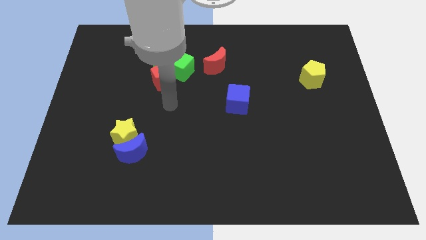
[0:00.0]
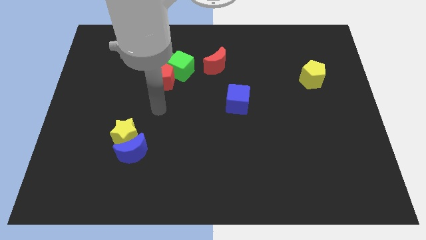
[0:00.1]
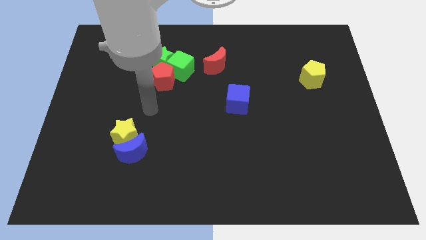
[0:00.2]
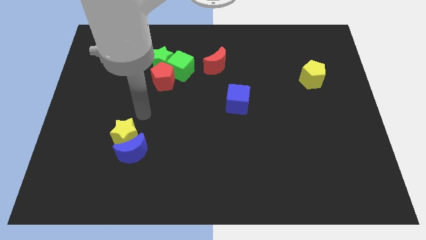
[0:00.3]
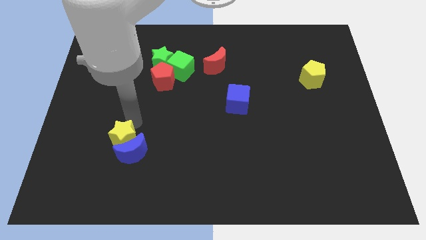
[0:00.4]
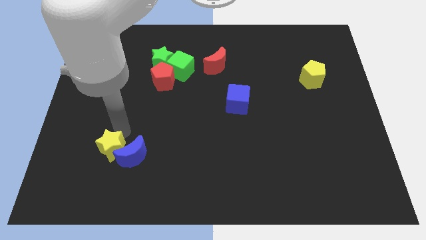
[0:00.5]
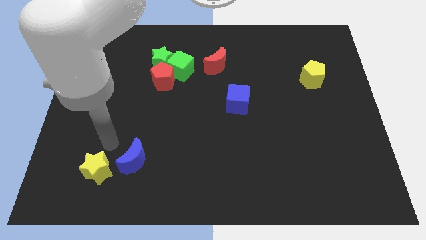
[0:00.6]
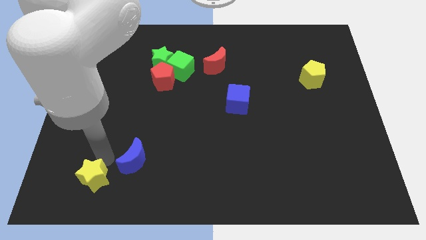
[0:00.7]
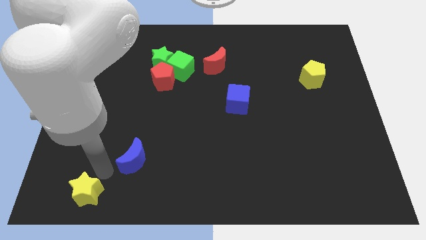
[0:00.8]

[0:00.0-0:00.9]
move the blue moon away from the yellow star

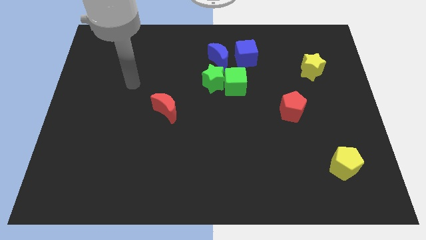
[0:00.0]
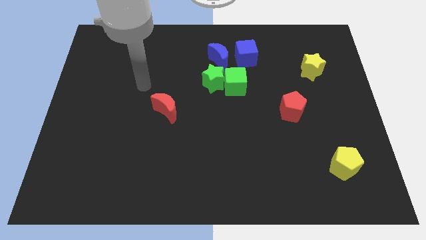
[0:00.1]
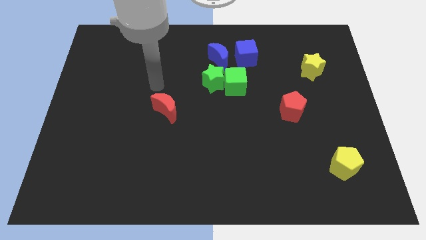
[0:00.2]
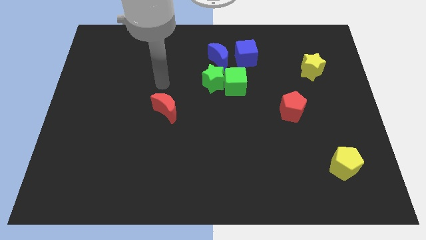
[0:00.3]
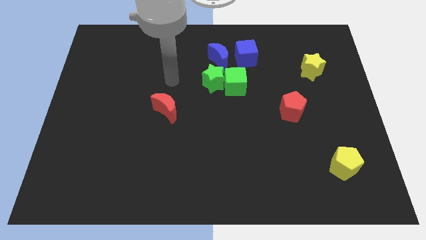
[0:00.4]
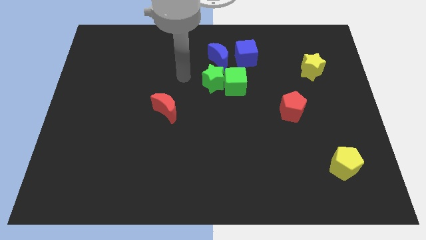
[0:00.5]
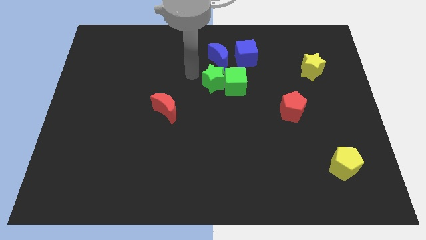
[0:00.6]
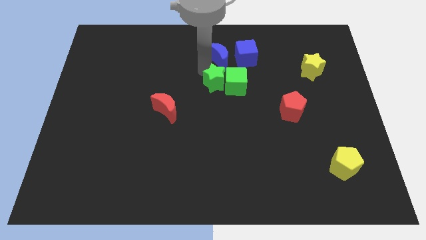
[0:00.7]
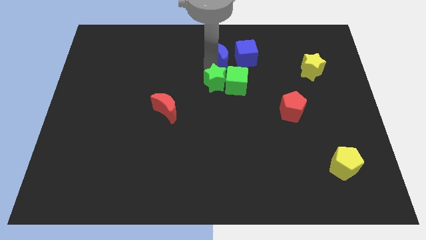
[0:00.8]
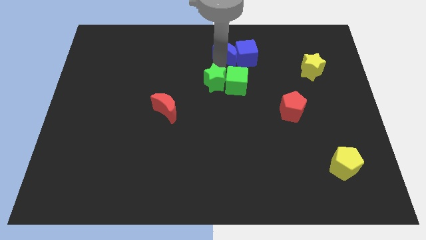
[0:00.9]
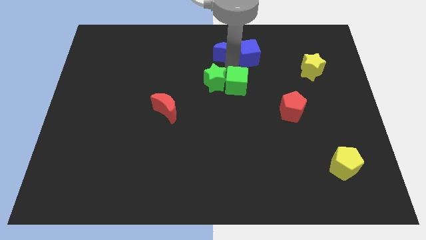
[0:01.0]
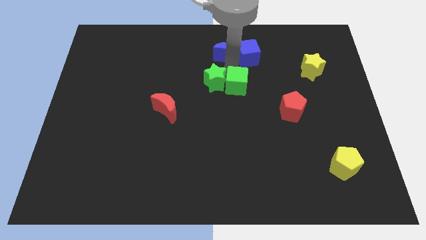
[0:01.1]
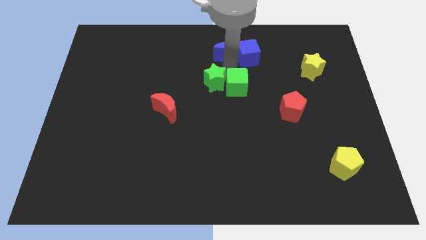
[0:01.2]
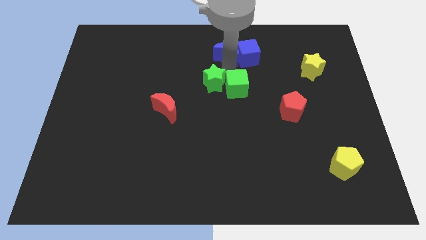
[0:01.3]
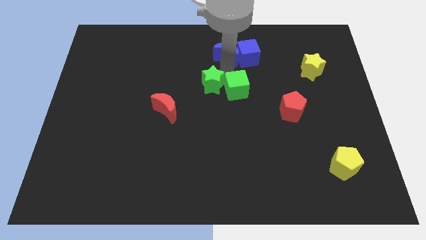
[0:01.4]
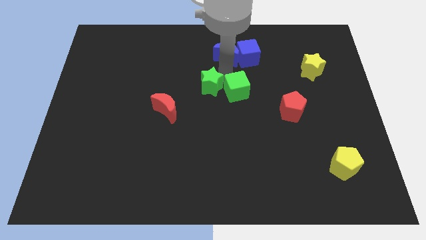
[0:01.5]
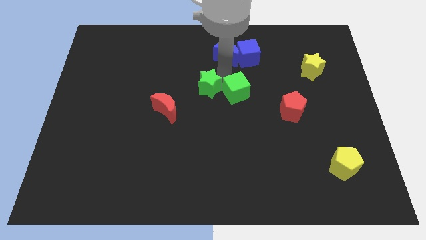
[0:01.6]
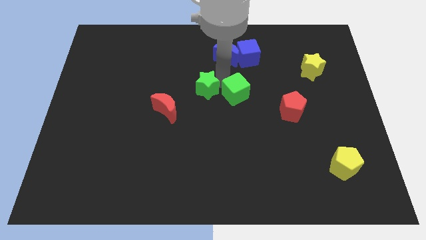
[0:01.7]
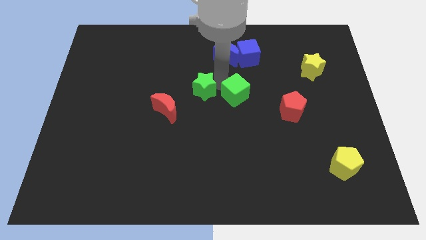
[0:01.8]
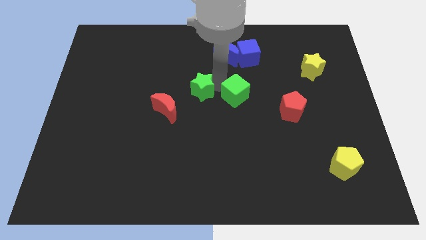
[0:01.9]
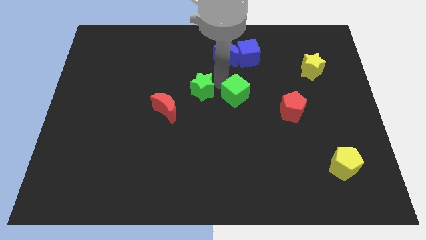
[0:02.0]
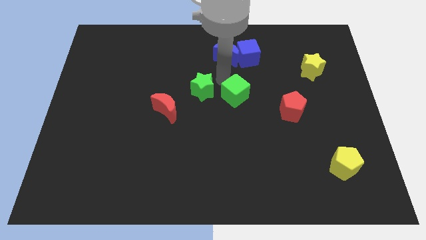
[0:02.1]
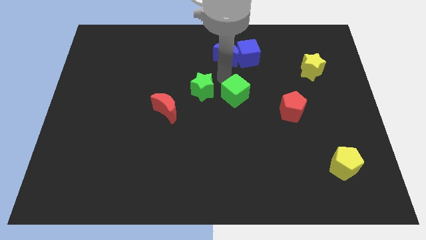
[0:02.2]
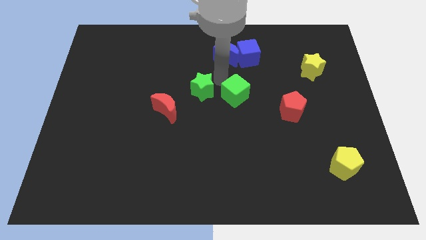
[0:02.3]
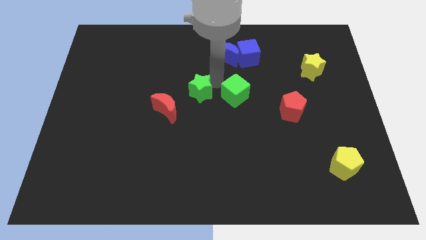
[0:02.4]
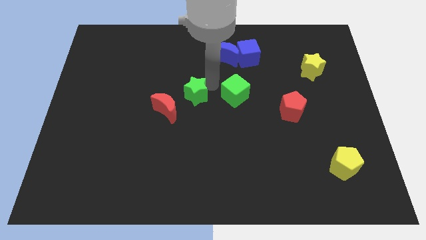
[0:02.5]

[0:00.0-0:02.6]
pull the green star apart from the green cube and blue moon

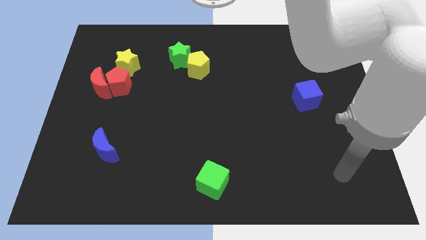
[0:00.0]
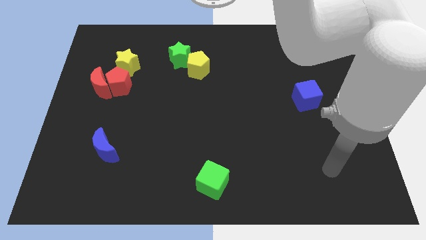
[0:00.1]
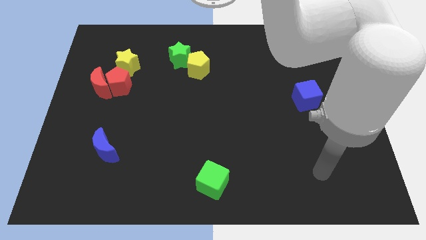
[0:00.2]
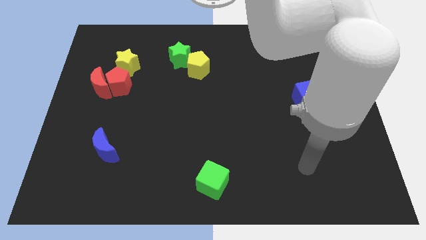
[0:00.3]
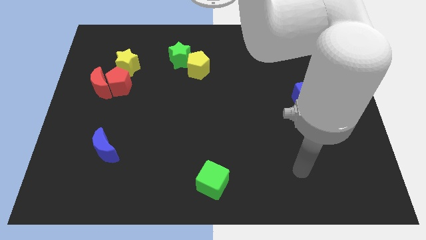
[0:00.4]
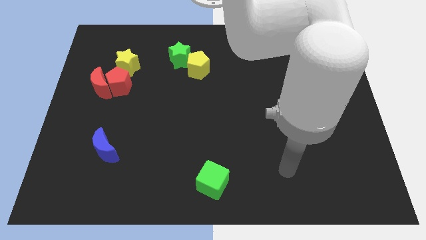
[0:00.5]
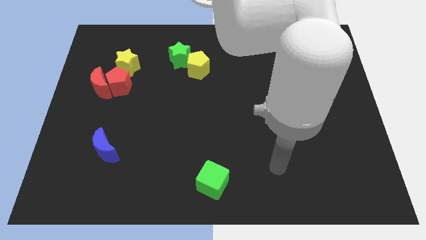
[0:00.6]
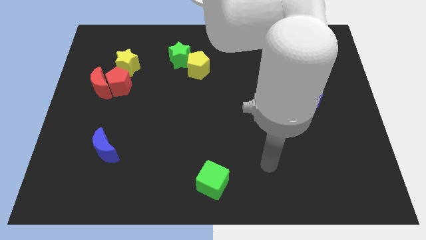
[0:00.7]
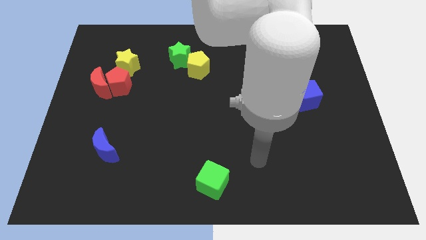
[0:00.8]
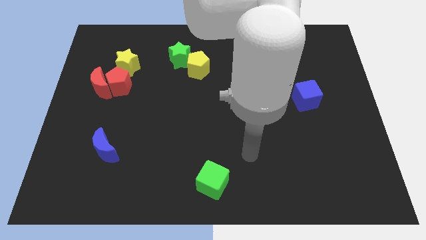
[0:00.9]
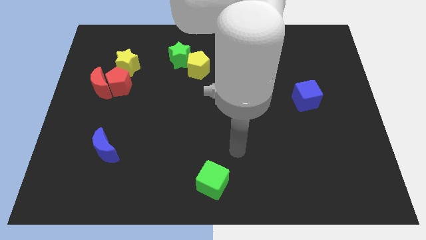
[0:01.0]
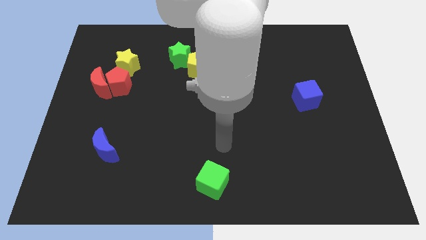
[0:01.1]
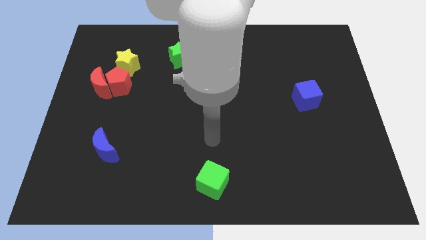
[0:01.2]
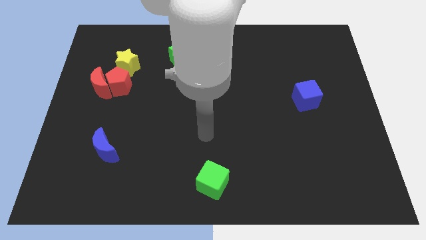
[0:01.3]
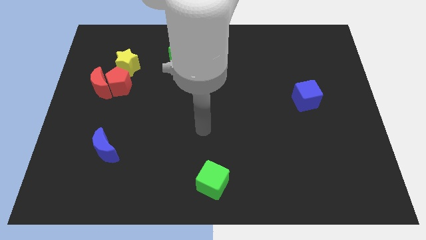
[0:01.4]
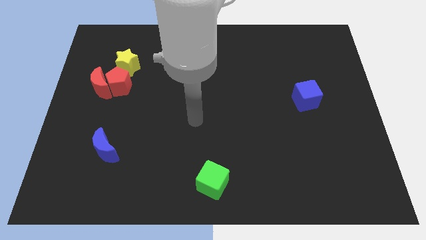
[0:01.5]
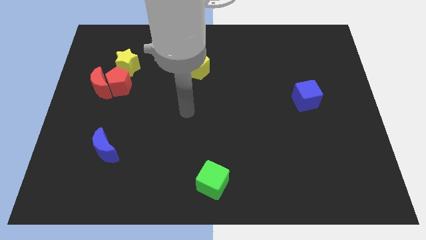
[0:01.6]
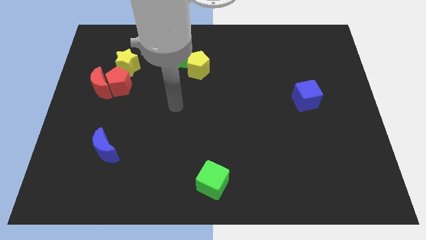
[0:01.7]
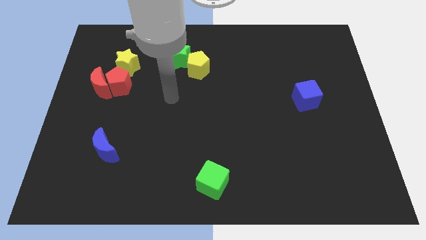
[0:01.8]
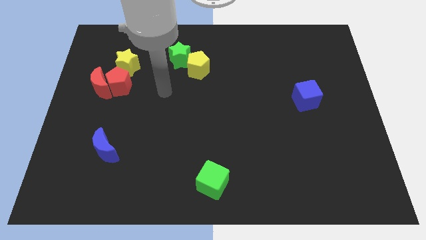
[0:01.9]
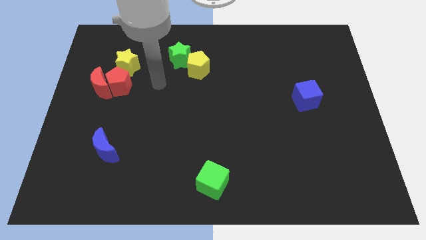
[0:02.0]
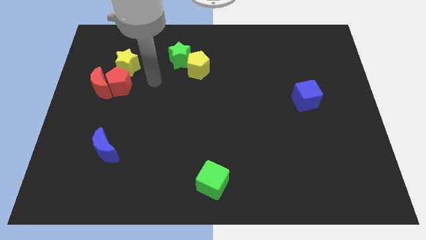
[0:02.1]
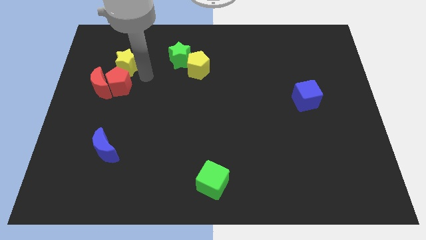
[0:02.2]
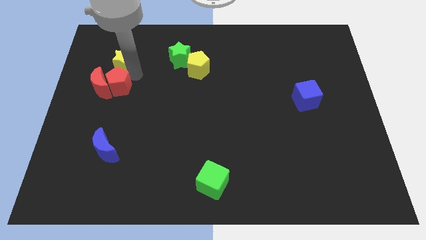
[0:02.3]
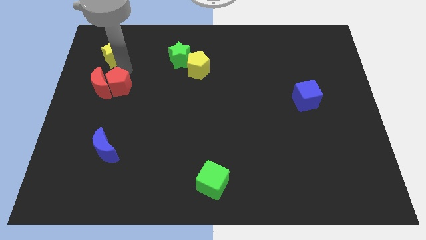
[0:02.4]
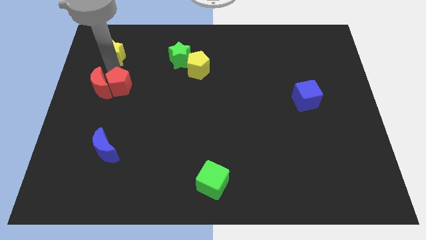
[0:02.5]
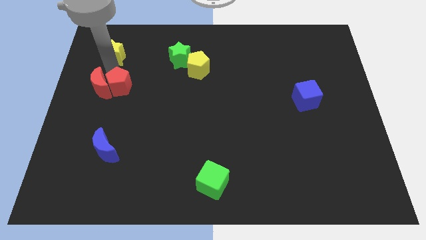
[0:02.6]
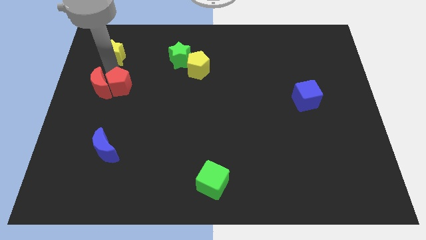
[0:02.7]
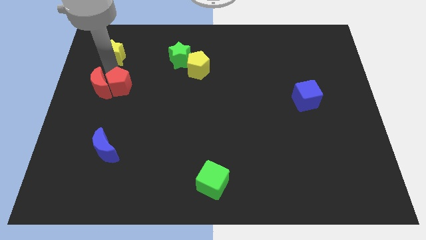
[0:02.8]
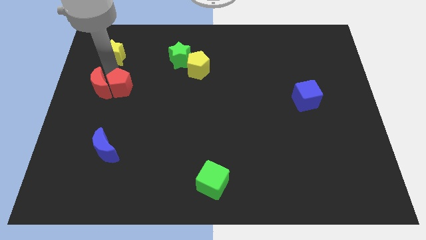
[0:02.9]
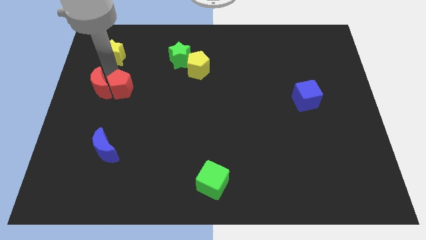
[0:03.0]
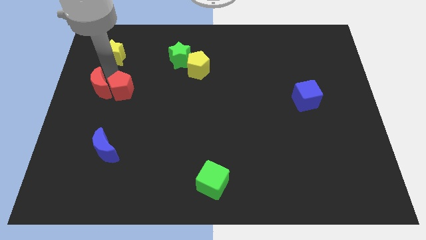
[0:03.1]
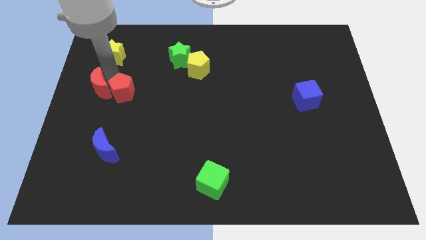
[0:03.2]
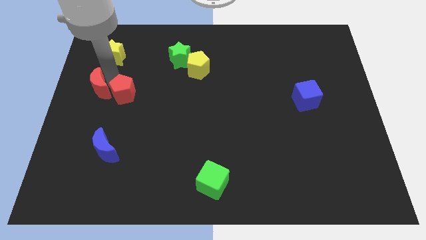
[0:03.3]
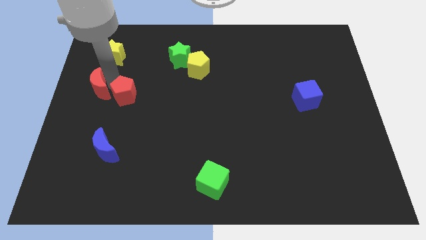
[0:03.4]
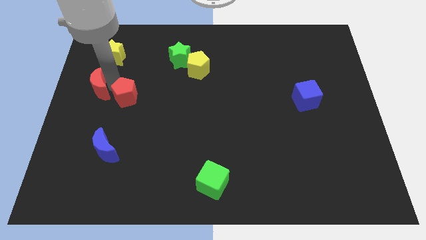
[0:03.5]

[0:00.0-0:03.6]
move the red pentagon away from the red moon and yellow star

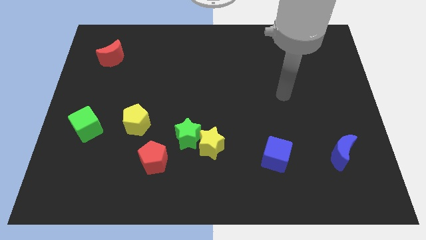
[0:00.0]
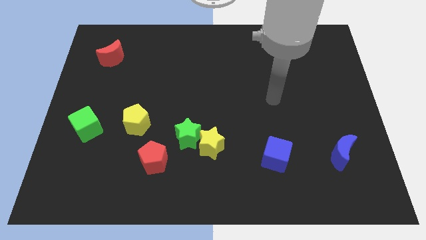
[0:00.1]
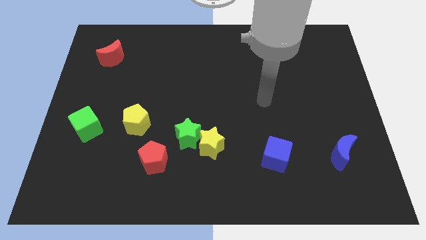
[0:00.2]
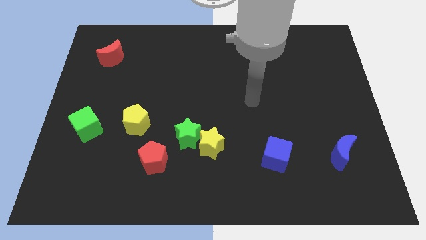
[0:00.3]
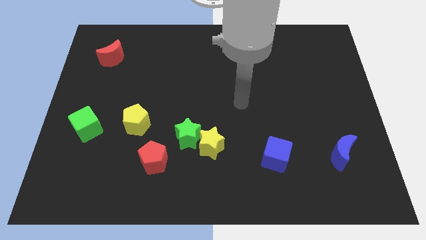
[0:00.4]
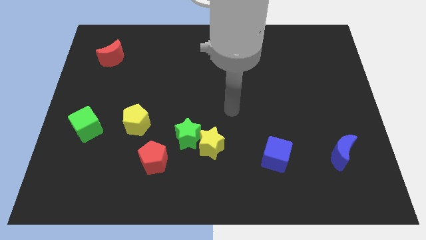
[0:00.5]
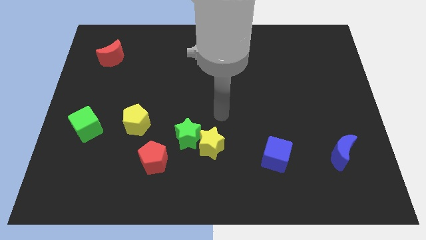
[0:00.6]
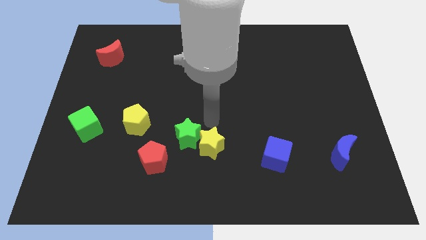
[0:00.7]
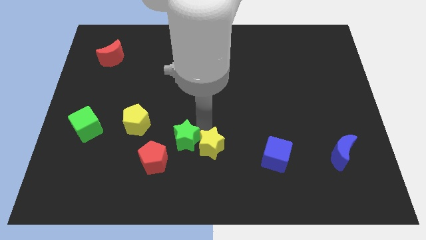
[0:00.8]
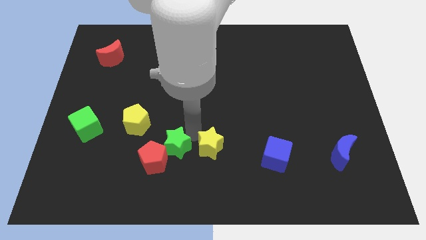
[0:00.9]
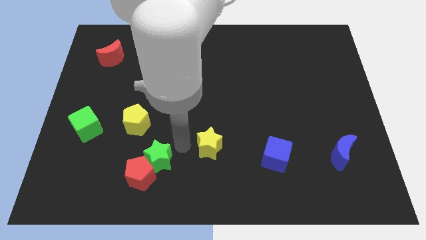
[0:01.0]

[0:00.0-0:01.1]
pull the yellow star apart from the green star

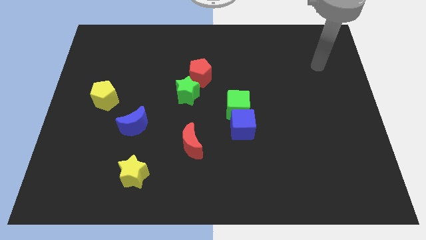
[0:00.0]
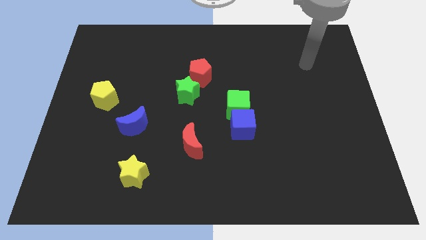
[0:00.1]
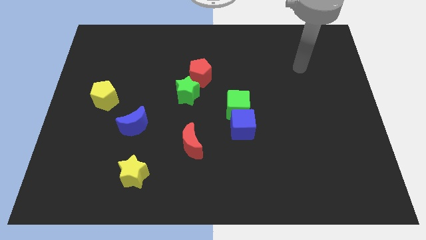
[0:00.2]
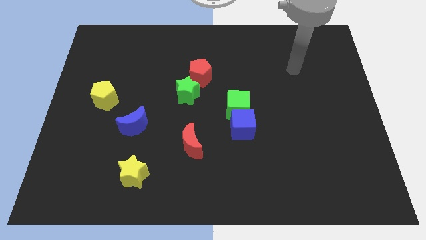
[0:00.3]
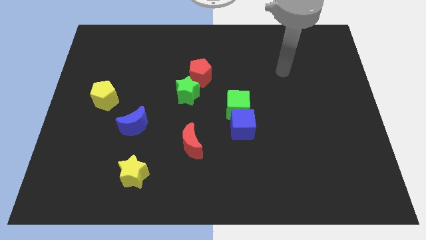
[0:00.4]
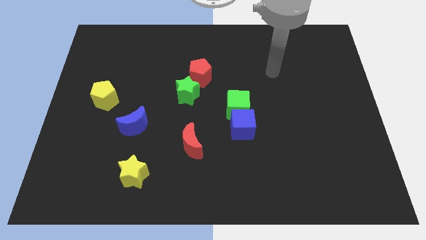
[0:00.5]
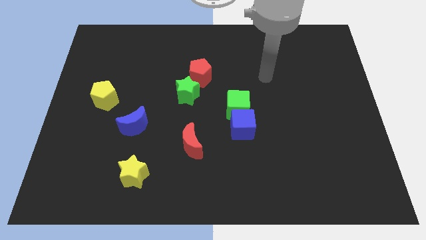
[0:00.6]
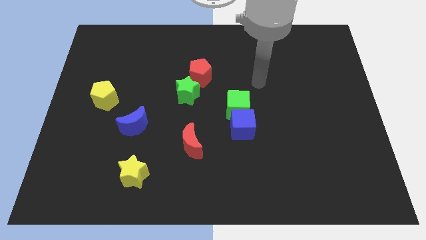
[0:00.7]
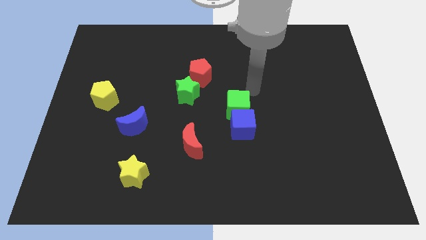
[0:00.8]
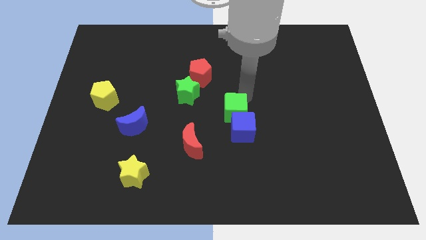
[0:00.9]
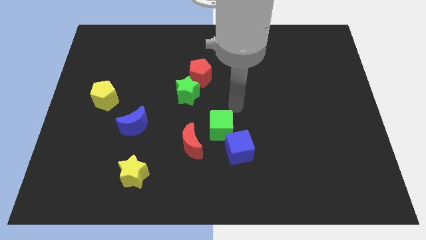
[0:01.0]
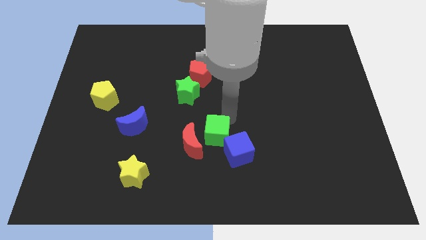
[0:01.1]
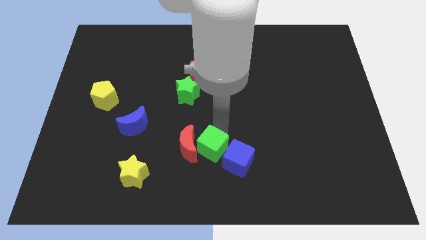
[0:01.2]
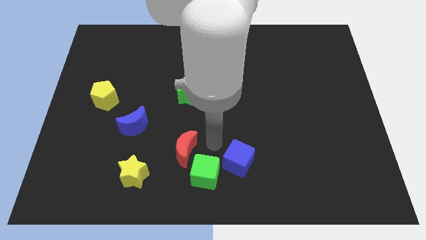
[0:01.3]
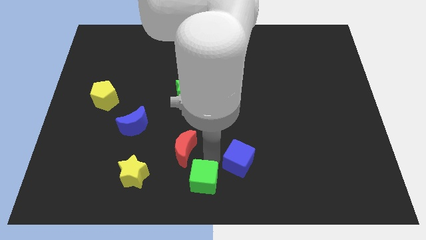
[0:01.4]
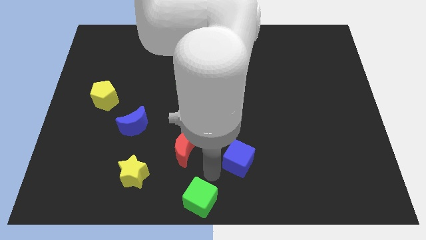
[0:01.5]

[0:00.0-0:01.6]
move the blue cube away from the green cube
